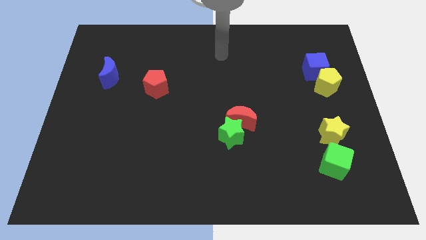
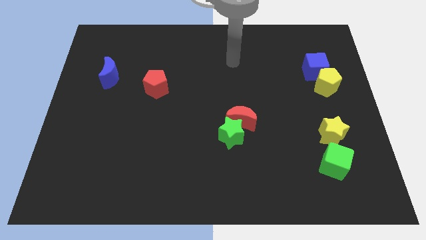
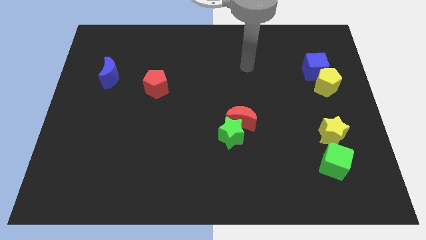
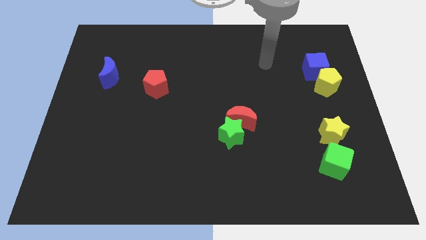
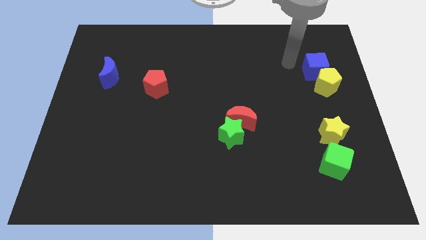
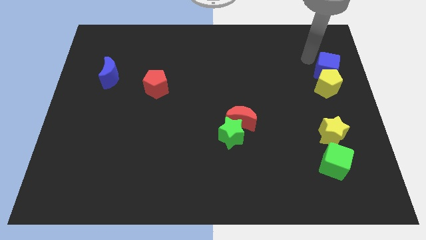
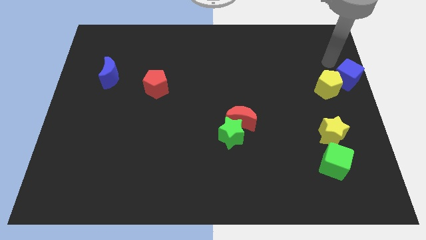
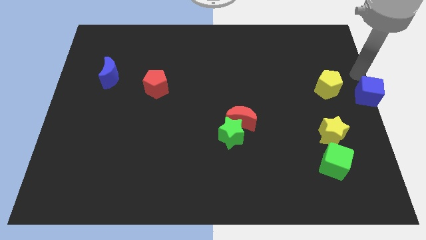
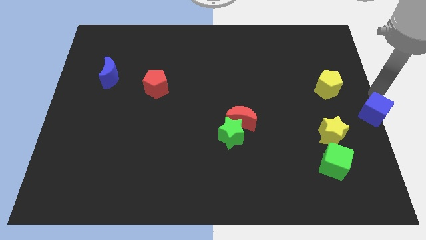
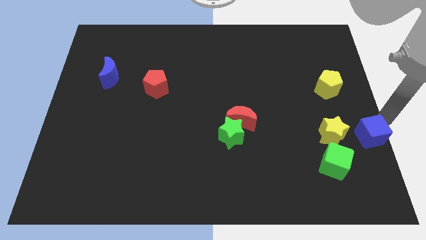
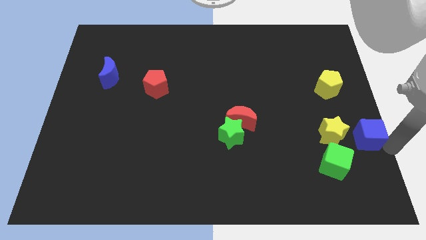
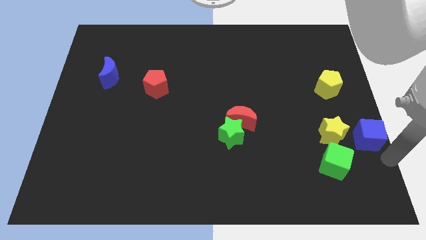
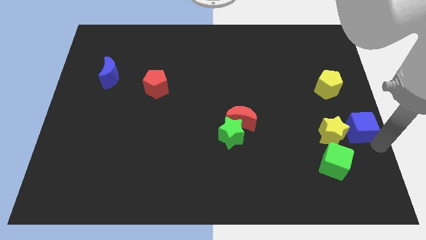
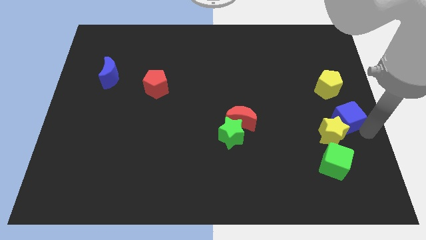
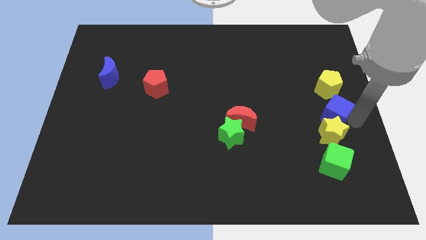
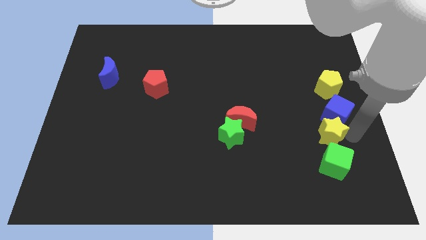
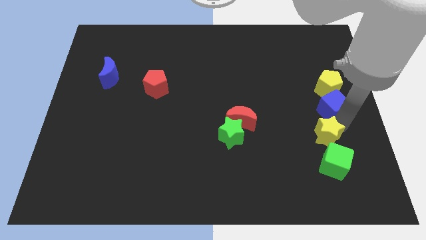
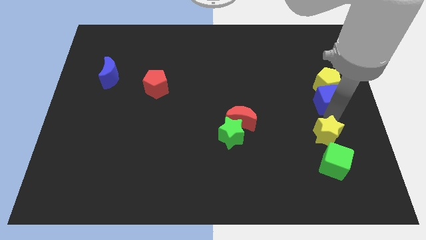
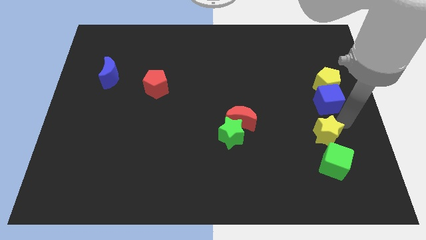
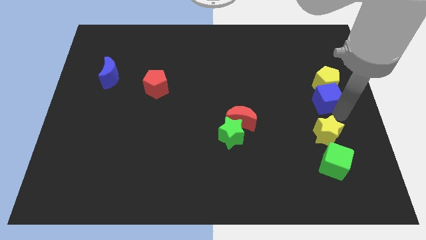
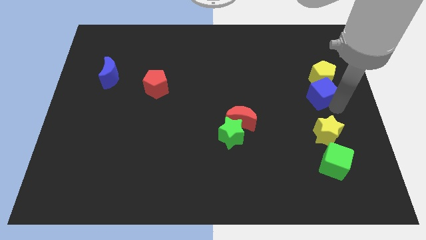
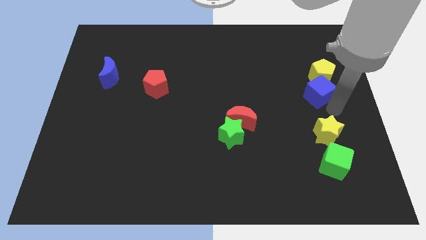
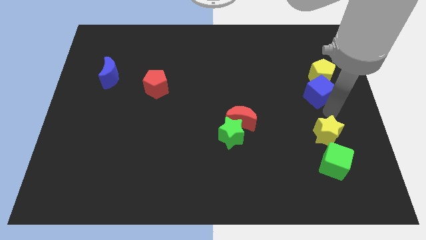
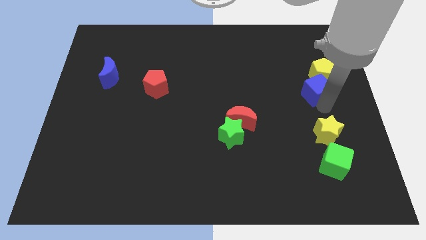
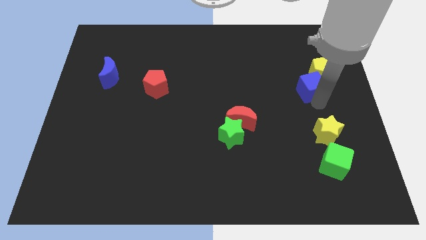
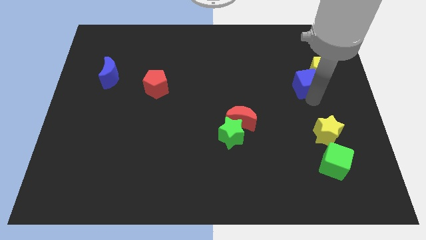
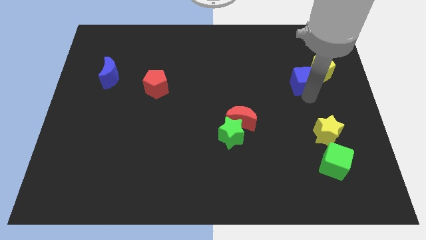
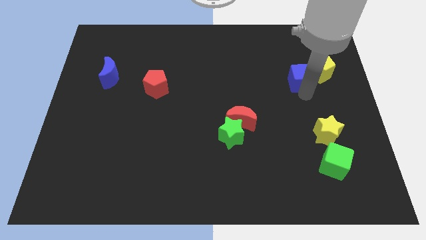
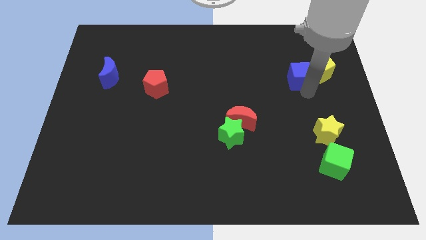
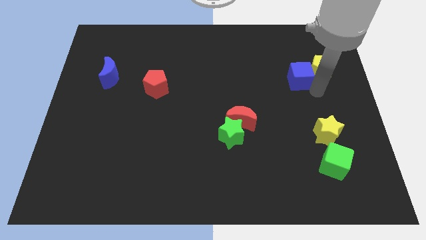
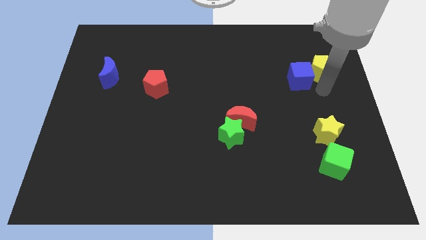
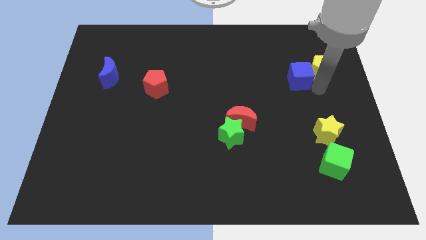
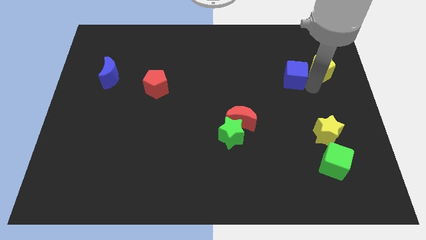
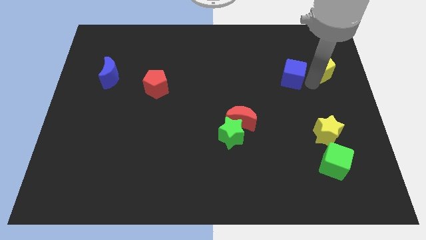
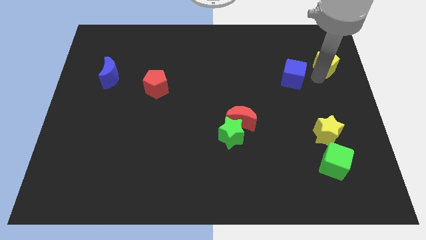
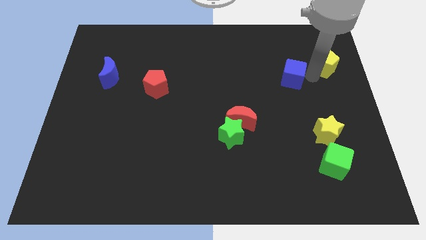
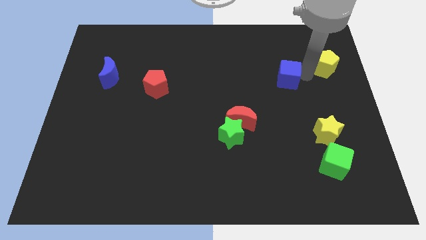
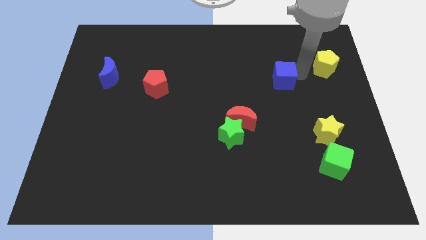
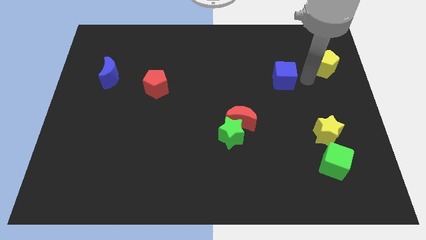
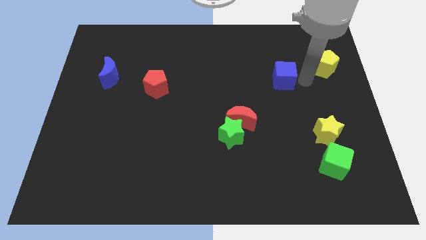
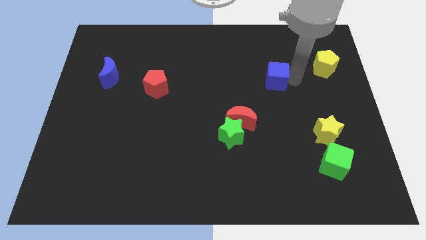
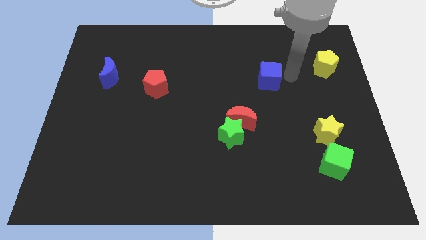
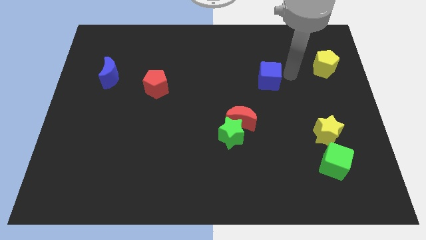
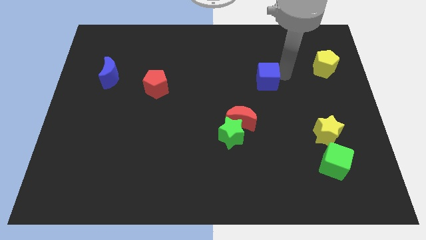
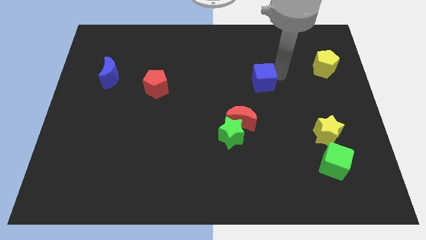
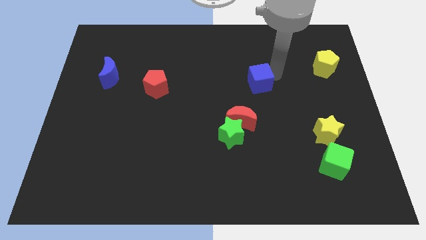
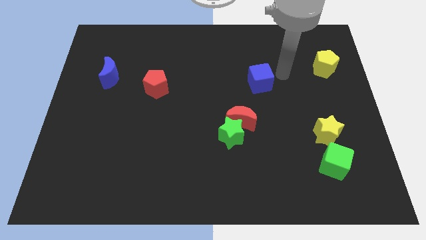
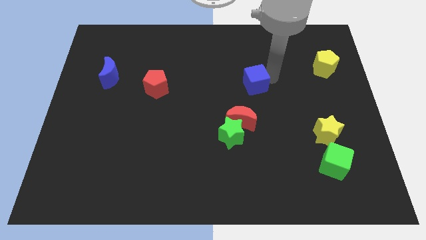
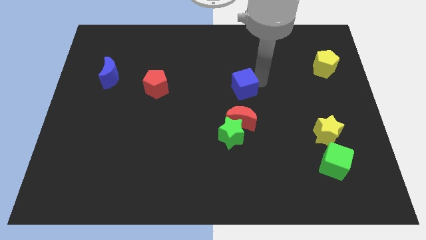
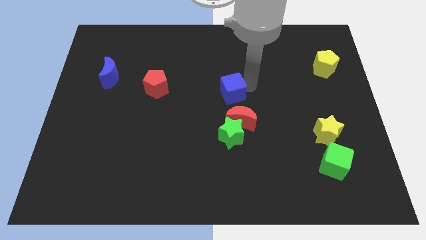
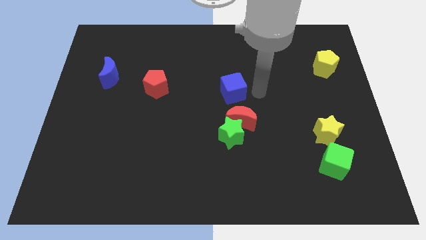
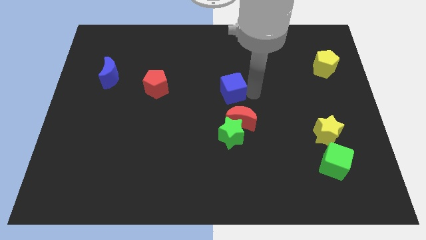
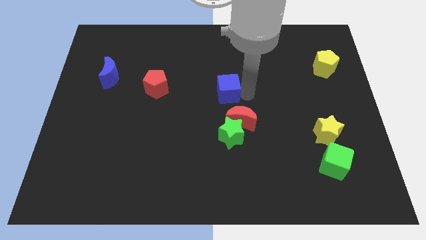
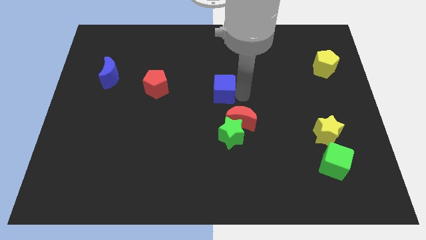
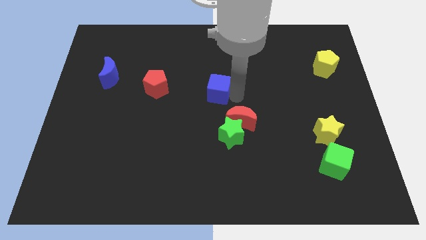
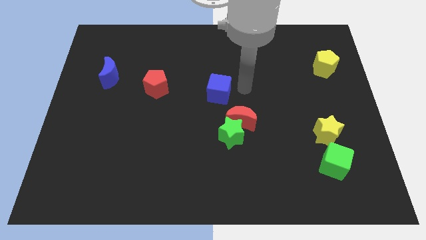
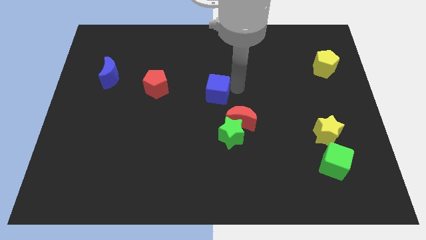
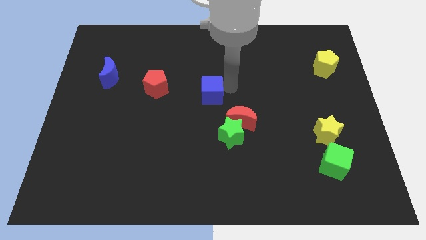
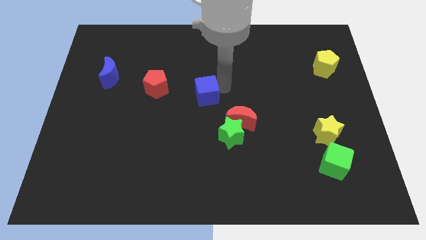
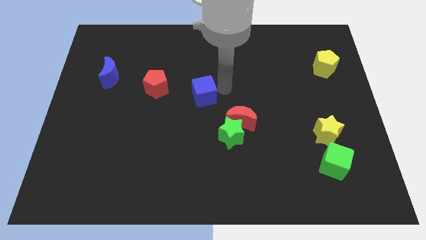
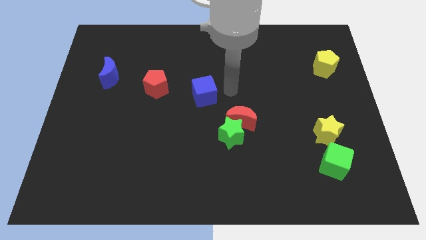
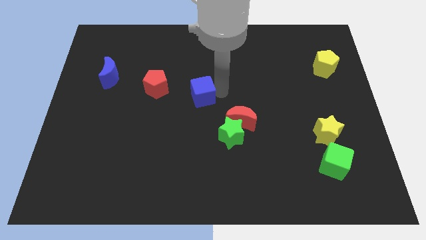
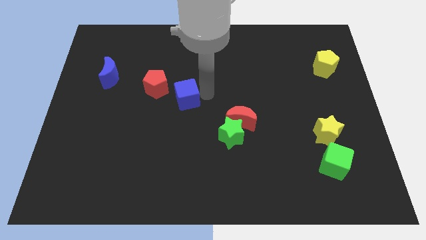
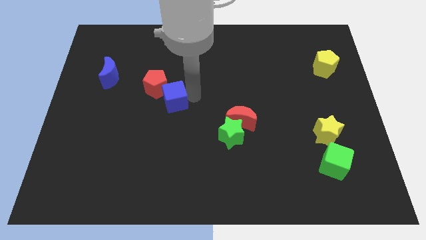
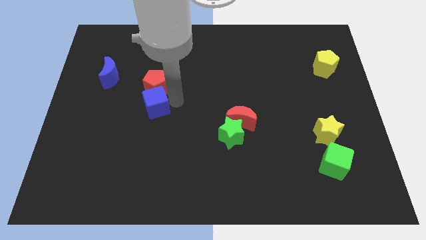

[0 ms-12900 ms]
push the blue cube diagonally down and to the left of the red pentagon
